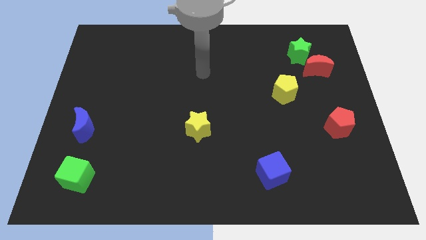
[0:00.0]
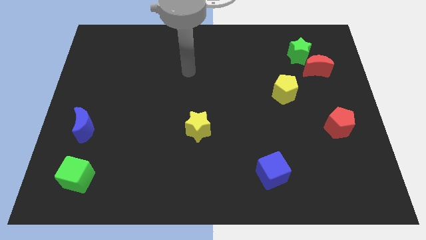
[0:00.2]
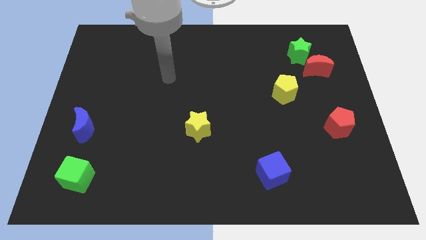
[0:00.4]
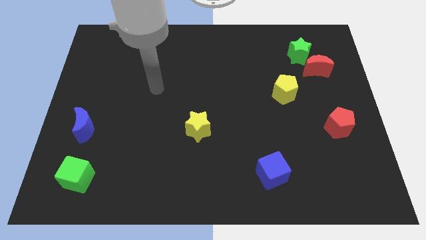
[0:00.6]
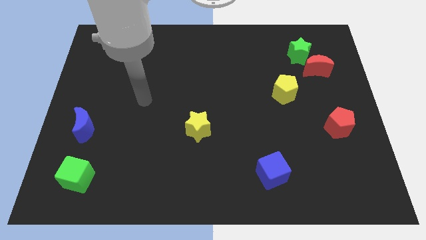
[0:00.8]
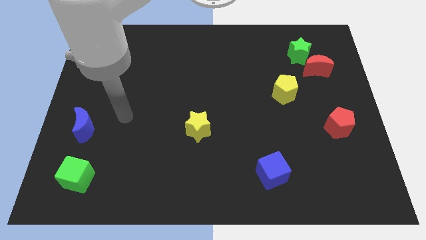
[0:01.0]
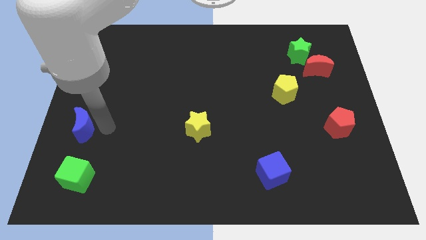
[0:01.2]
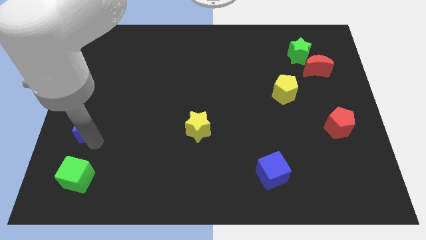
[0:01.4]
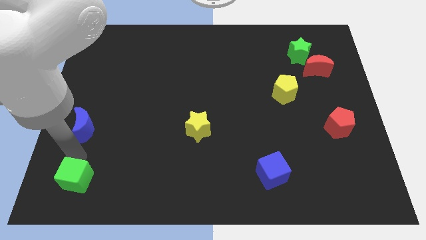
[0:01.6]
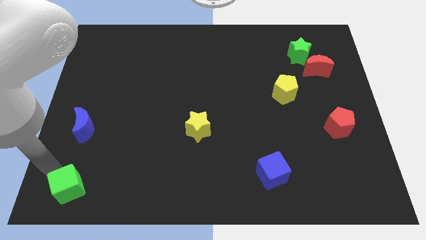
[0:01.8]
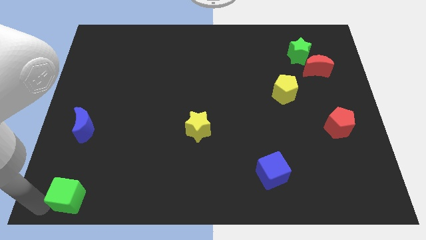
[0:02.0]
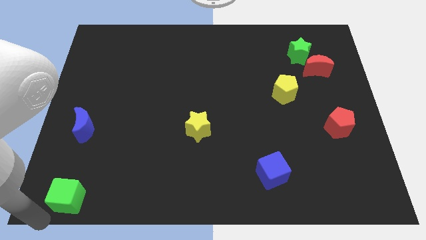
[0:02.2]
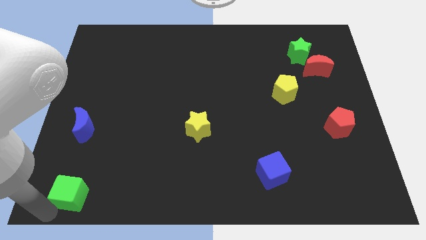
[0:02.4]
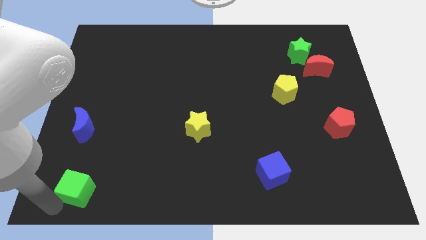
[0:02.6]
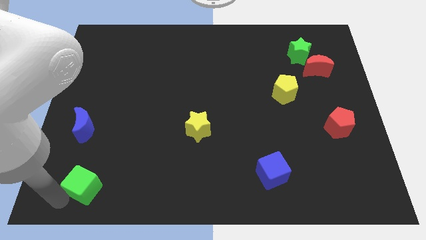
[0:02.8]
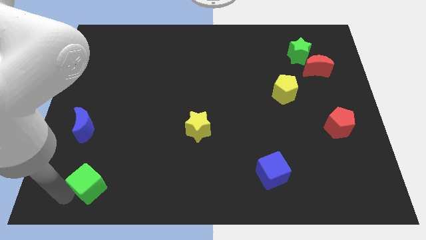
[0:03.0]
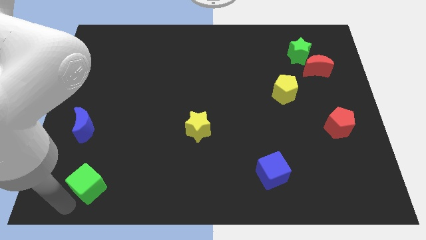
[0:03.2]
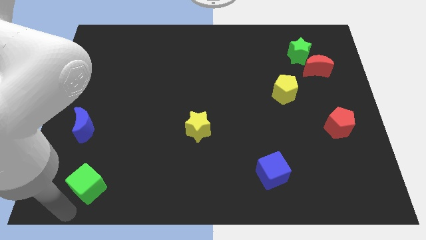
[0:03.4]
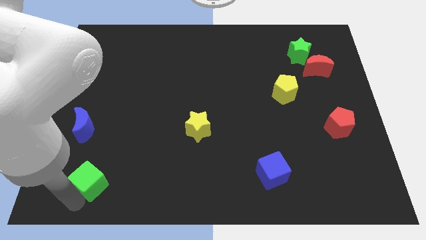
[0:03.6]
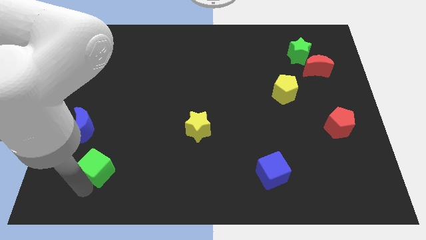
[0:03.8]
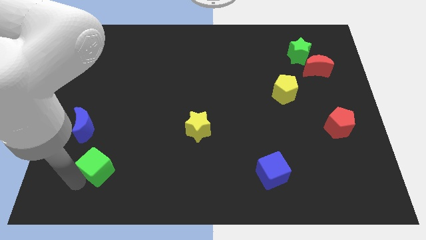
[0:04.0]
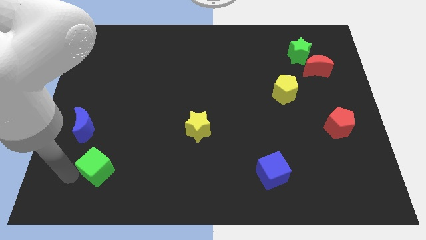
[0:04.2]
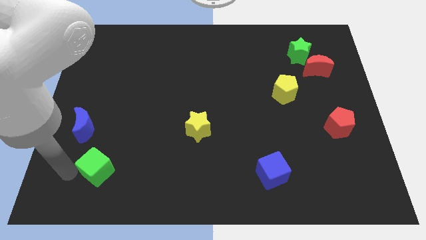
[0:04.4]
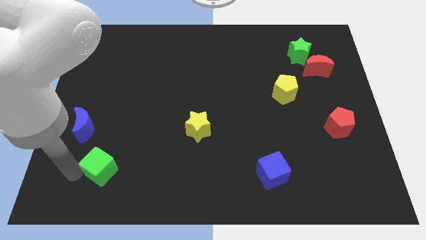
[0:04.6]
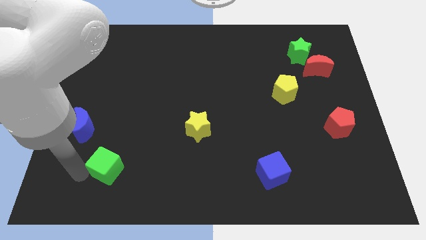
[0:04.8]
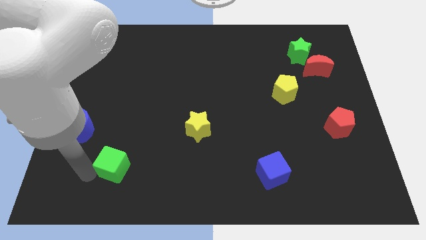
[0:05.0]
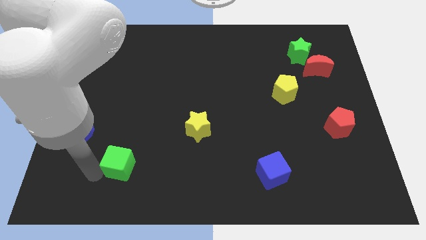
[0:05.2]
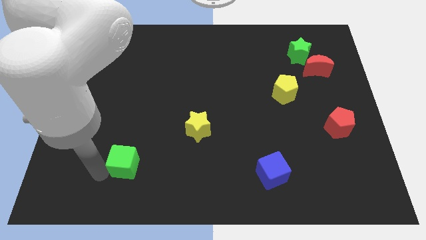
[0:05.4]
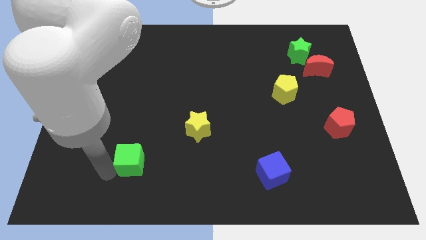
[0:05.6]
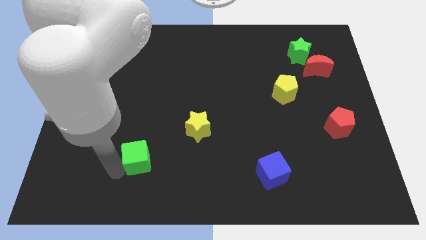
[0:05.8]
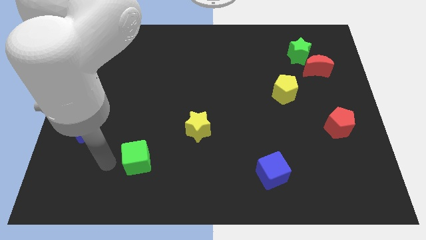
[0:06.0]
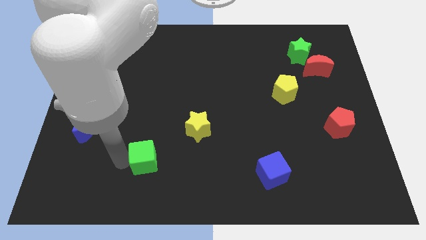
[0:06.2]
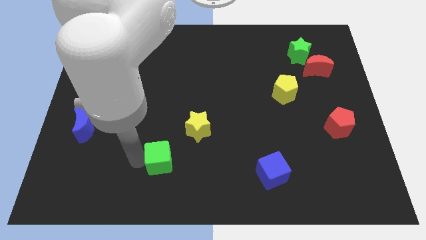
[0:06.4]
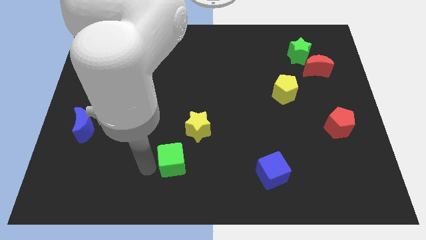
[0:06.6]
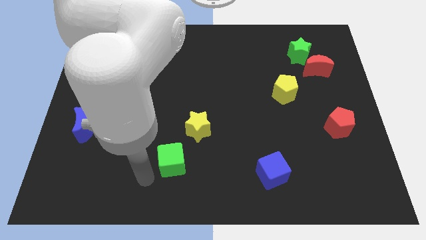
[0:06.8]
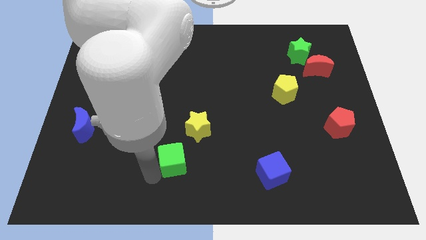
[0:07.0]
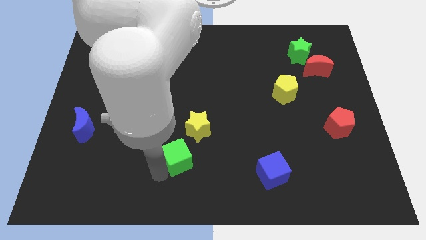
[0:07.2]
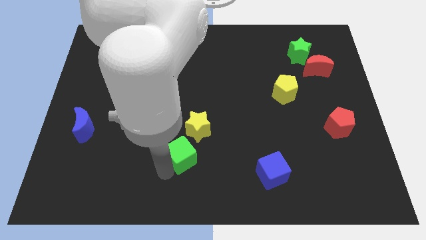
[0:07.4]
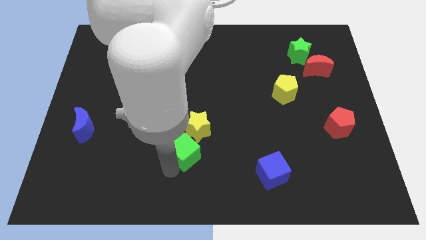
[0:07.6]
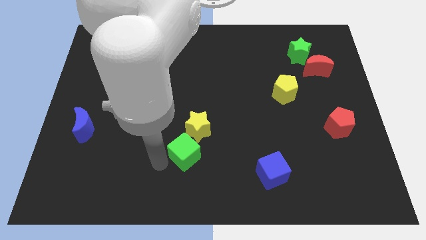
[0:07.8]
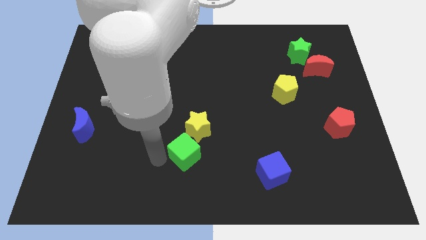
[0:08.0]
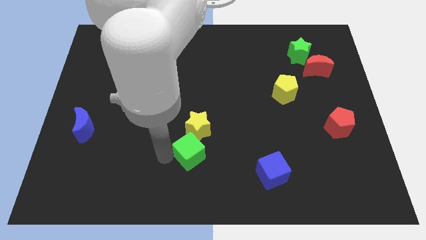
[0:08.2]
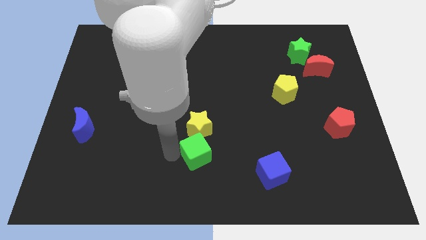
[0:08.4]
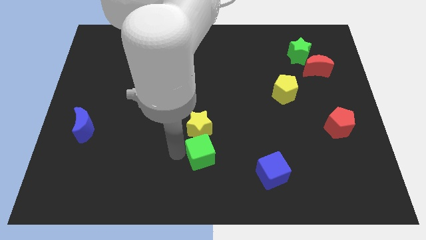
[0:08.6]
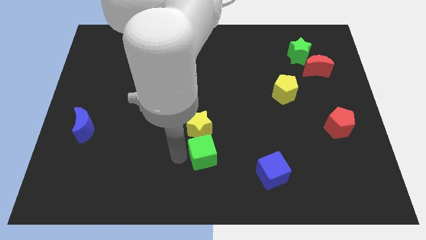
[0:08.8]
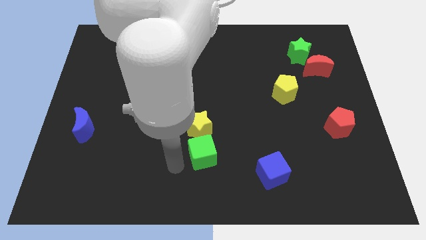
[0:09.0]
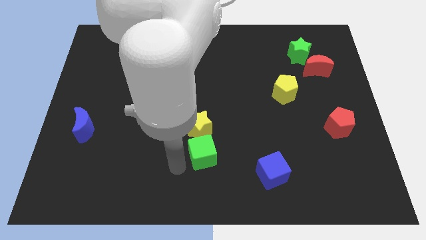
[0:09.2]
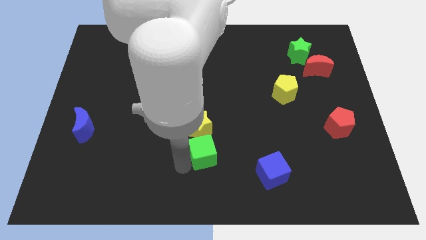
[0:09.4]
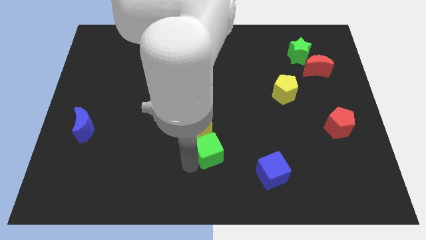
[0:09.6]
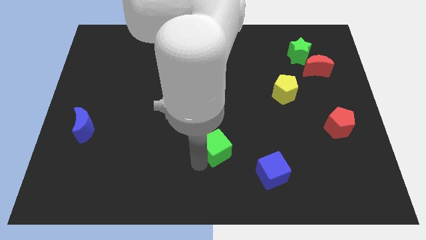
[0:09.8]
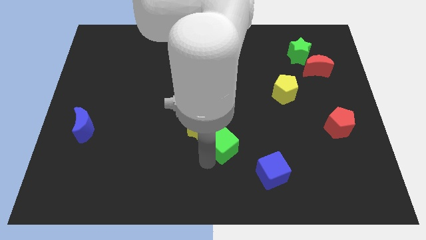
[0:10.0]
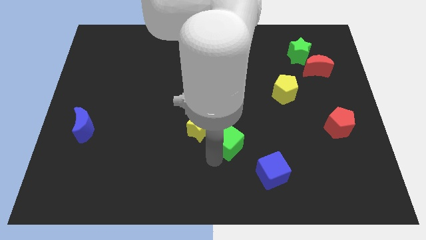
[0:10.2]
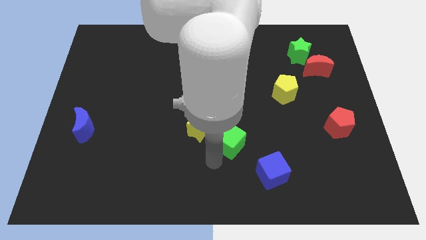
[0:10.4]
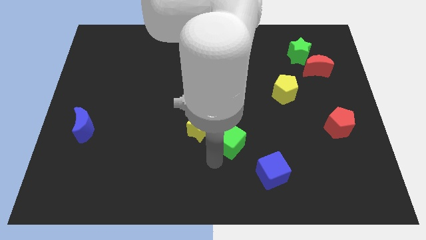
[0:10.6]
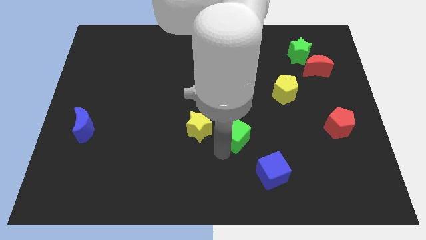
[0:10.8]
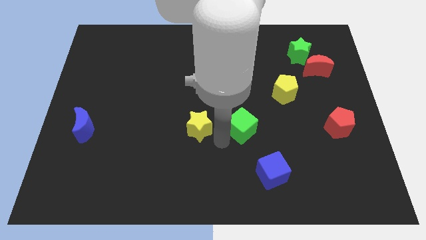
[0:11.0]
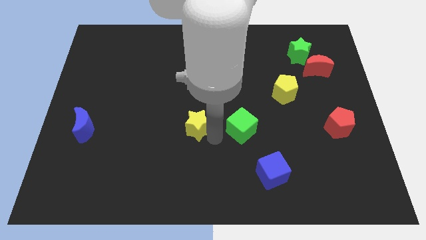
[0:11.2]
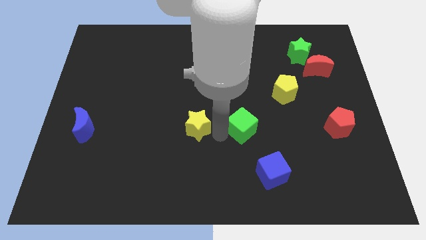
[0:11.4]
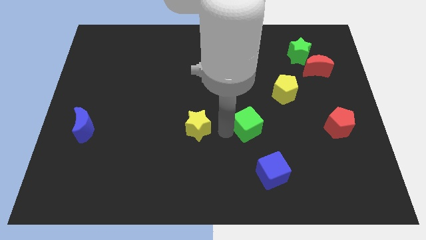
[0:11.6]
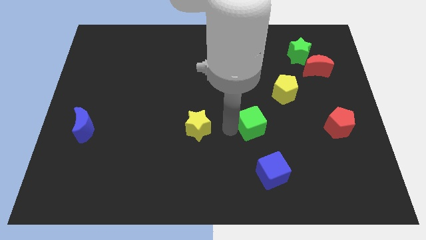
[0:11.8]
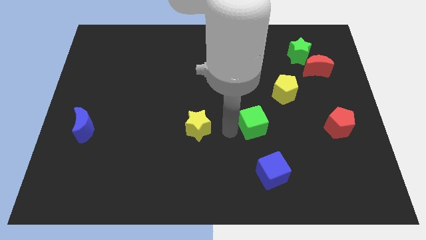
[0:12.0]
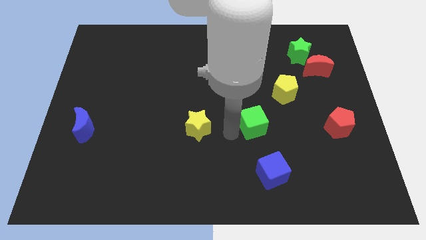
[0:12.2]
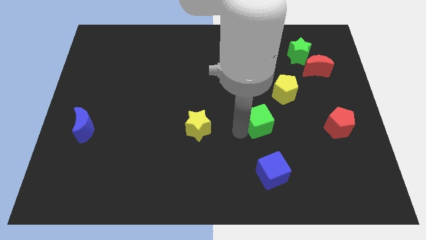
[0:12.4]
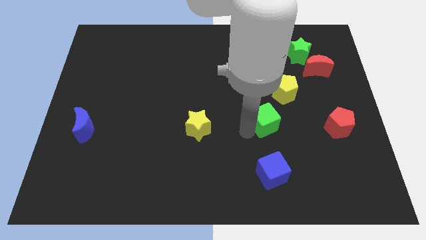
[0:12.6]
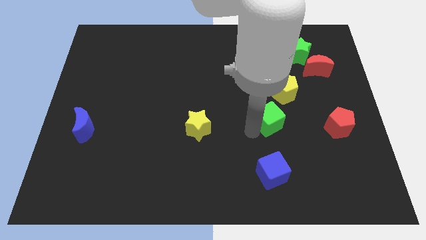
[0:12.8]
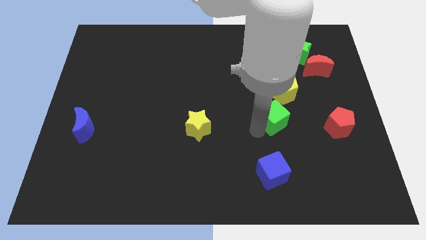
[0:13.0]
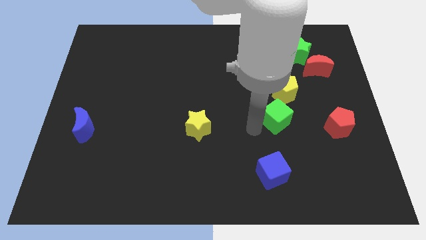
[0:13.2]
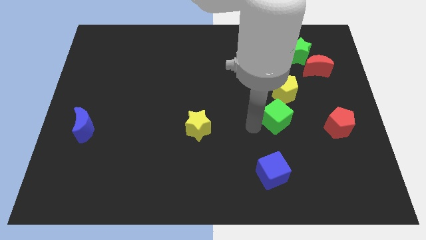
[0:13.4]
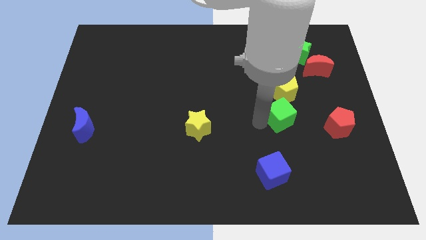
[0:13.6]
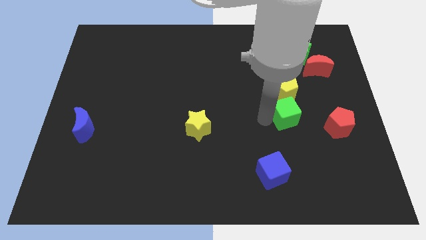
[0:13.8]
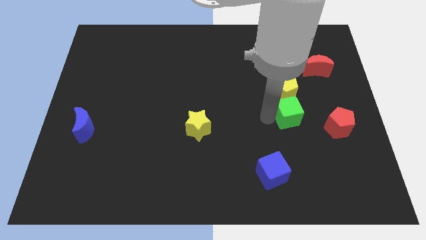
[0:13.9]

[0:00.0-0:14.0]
push the green cube diagonally down and to the right of the yellow pentagon
